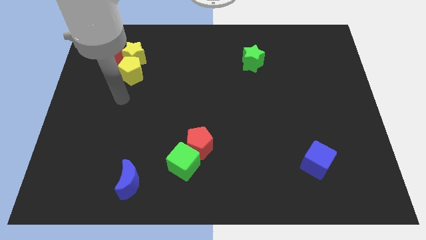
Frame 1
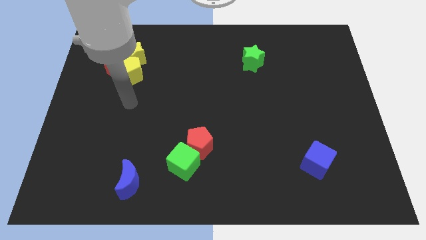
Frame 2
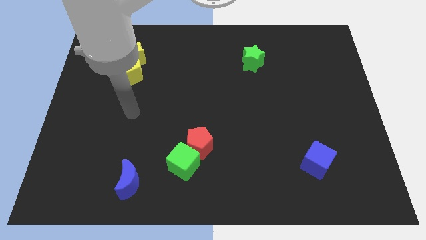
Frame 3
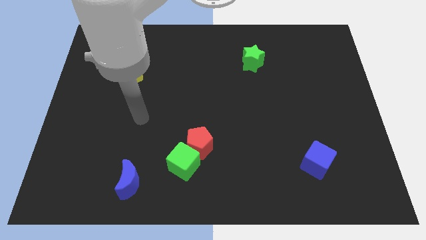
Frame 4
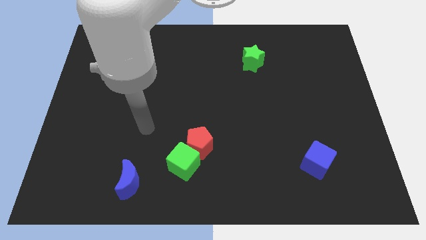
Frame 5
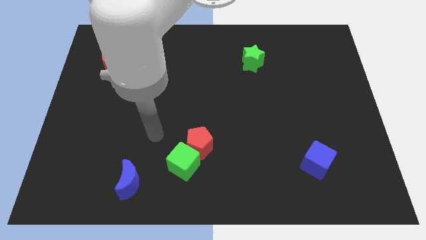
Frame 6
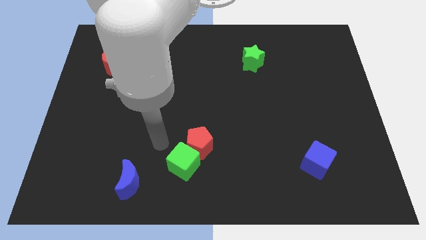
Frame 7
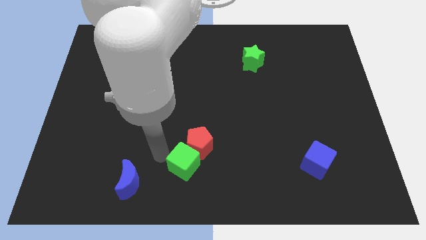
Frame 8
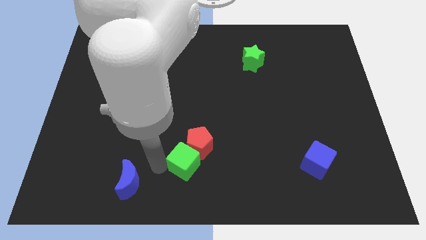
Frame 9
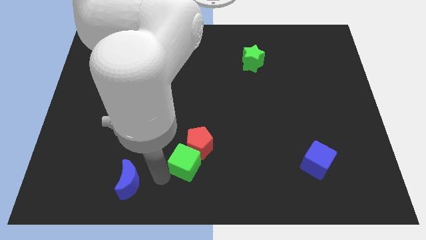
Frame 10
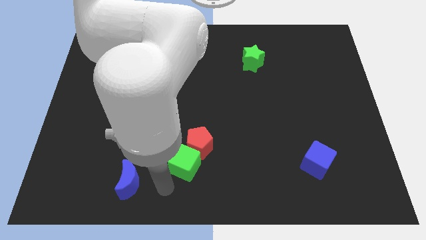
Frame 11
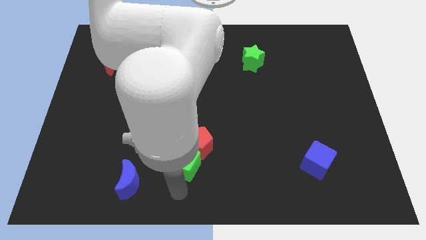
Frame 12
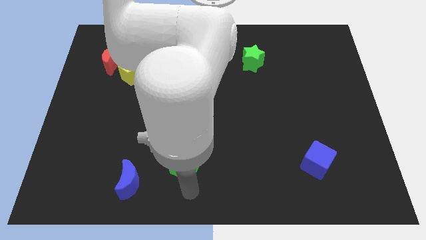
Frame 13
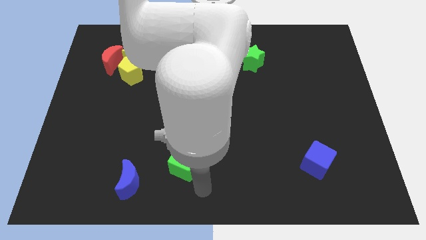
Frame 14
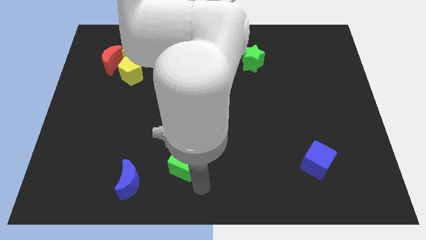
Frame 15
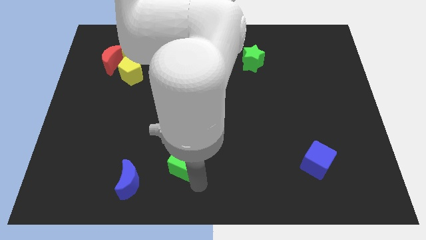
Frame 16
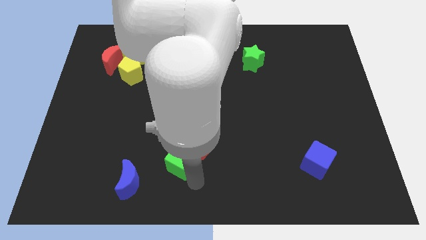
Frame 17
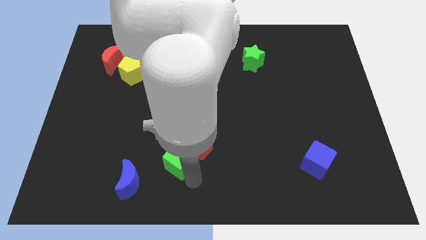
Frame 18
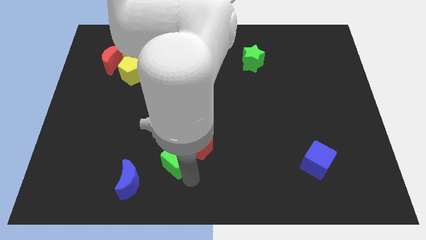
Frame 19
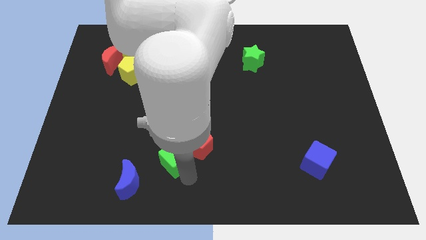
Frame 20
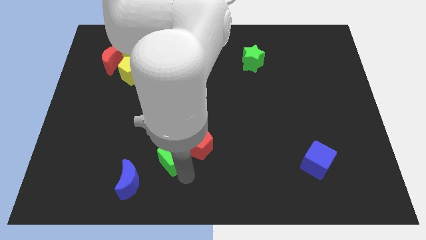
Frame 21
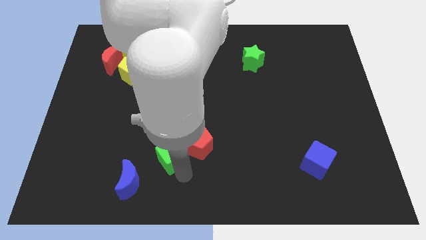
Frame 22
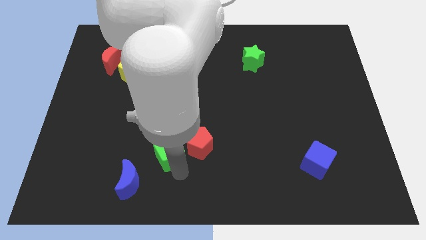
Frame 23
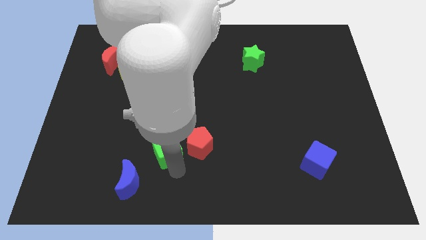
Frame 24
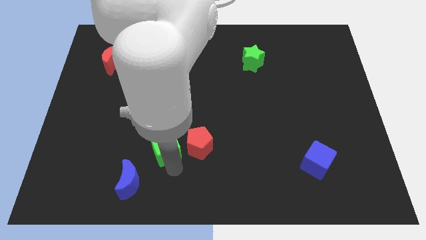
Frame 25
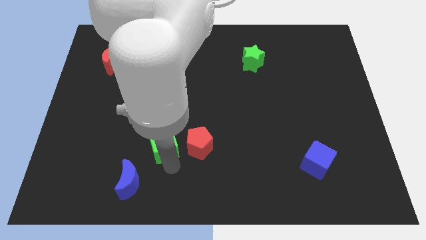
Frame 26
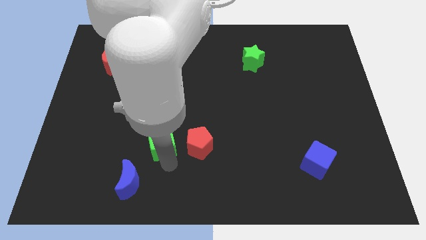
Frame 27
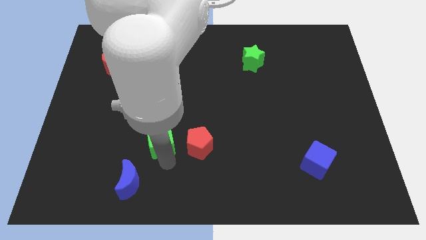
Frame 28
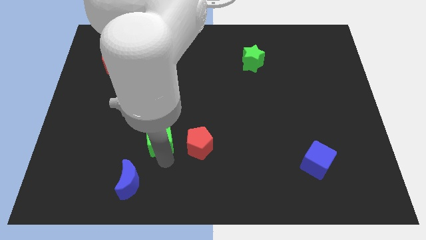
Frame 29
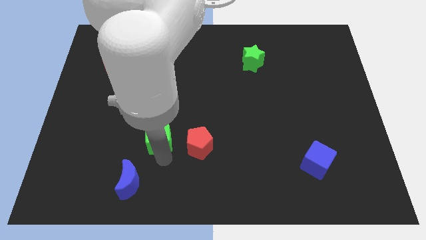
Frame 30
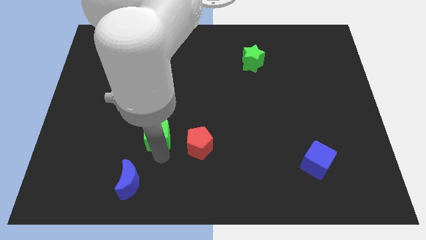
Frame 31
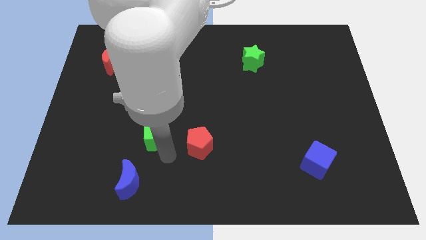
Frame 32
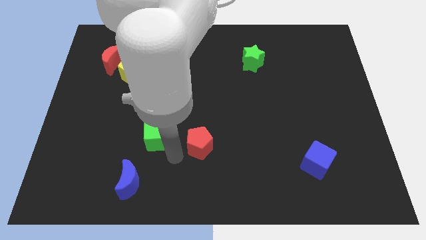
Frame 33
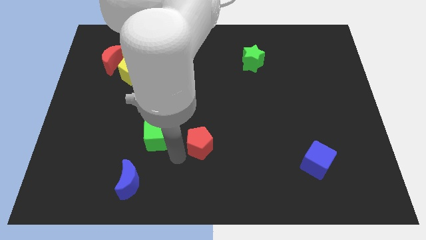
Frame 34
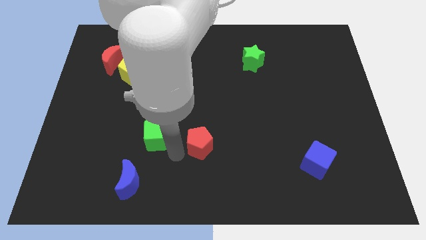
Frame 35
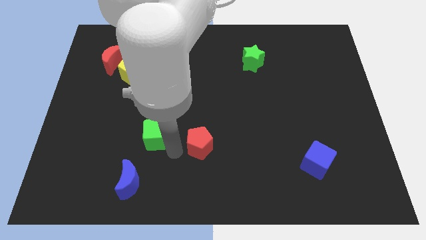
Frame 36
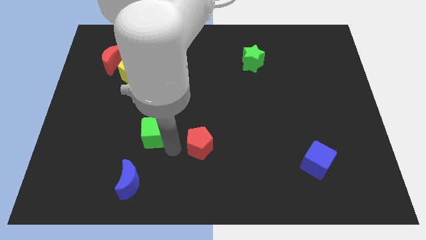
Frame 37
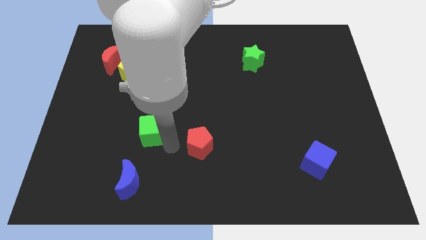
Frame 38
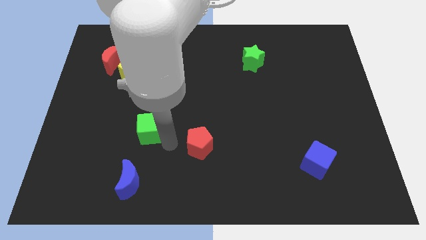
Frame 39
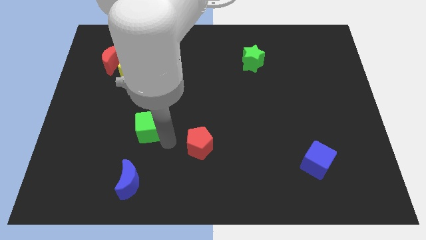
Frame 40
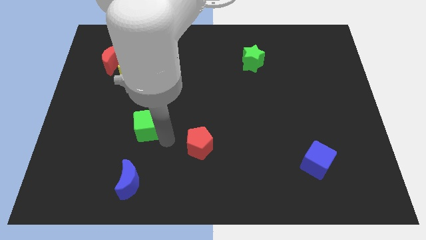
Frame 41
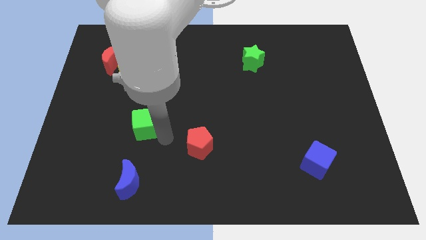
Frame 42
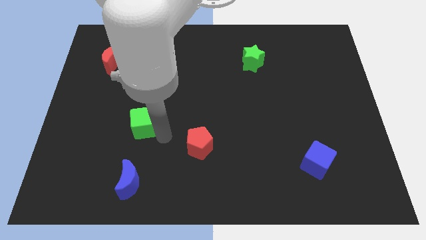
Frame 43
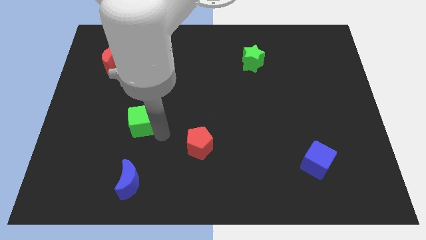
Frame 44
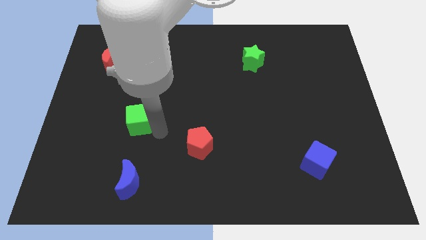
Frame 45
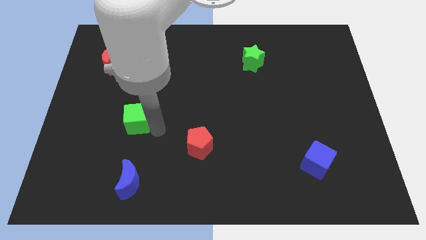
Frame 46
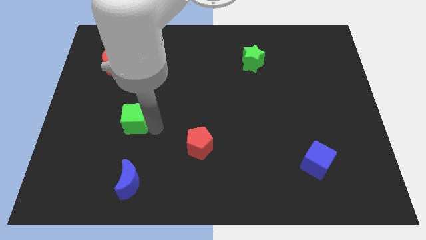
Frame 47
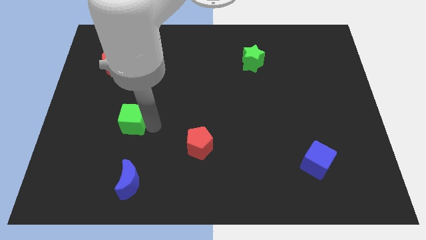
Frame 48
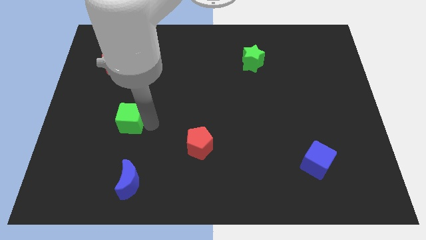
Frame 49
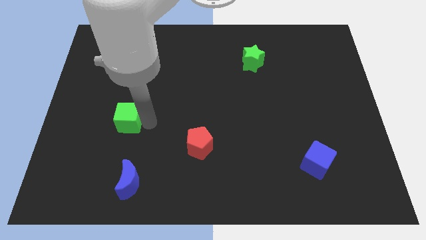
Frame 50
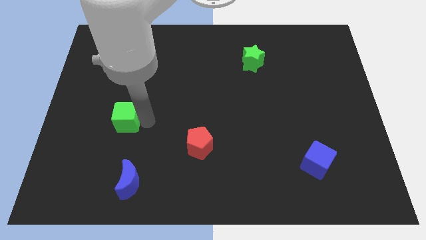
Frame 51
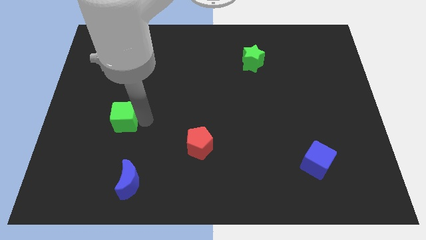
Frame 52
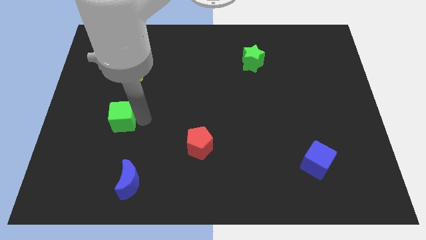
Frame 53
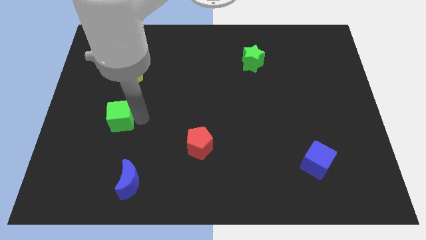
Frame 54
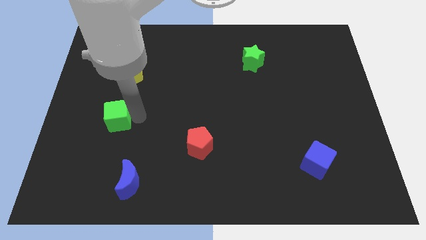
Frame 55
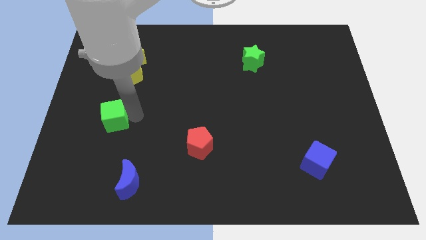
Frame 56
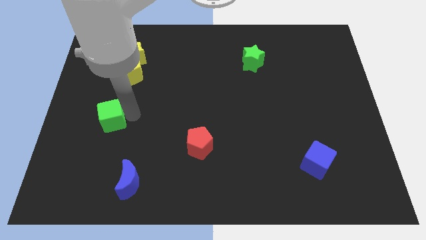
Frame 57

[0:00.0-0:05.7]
push the green cube diagonally up and left

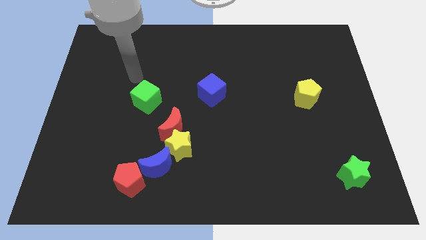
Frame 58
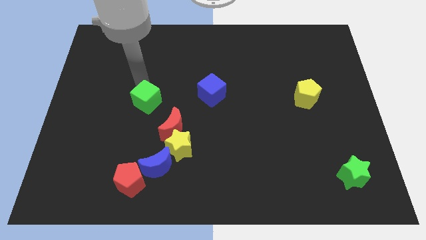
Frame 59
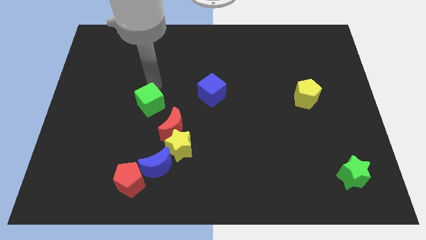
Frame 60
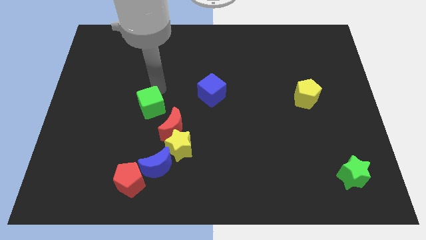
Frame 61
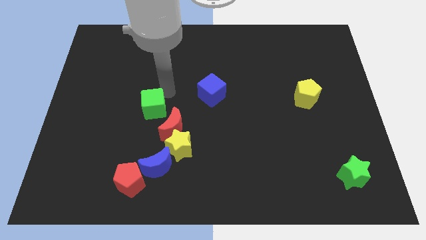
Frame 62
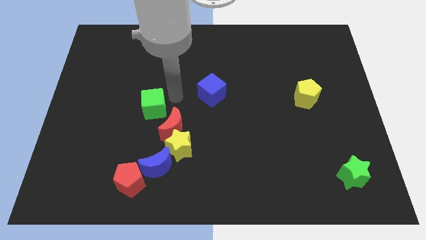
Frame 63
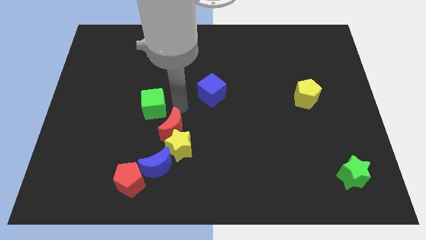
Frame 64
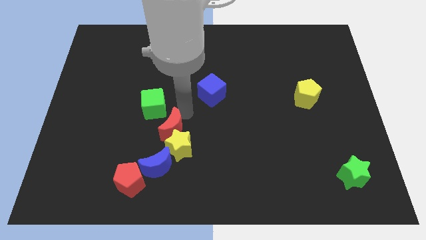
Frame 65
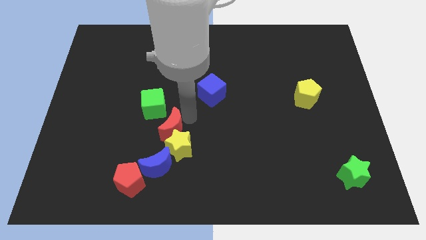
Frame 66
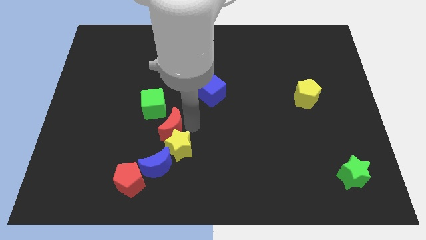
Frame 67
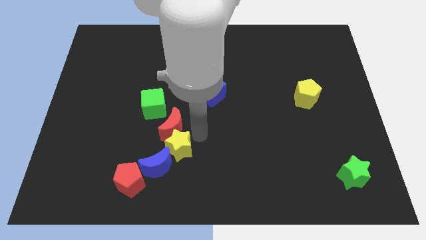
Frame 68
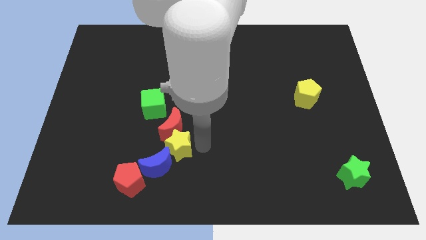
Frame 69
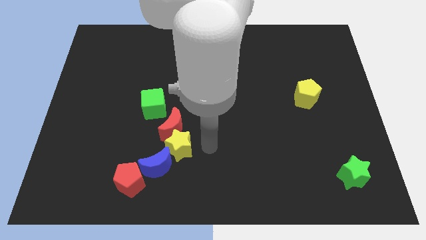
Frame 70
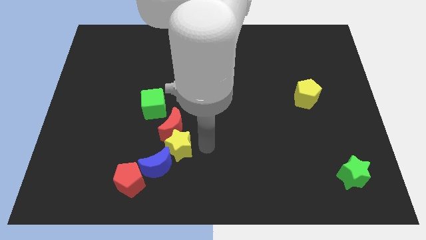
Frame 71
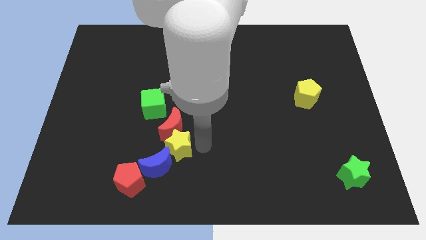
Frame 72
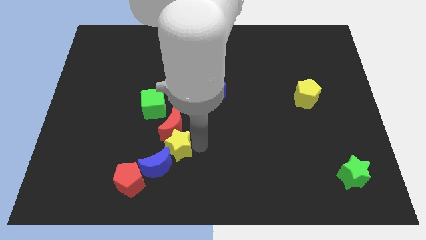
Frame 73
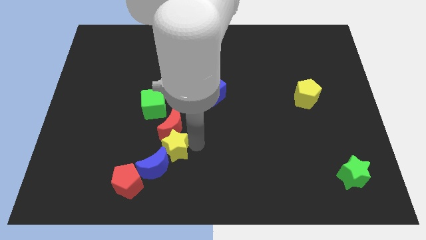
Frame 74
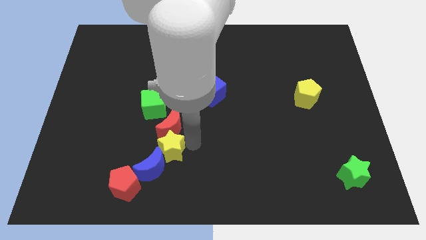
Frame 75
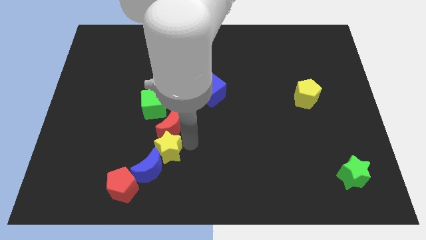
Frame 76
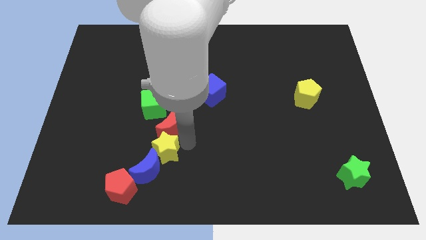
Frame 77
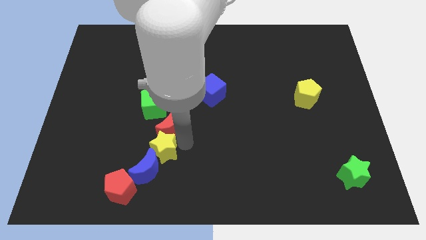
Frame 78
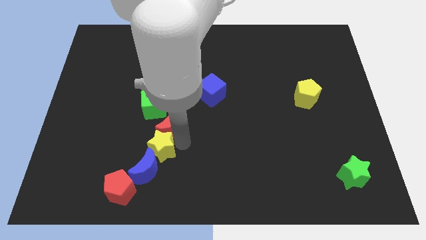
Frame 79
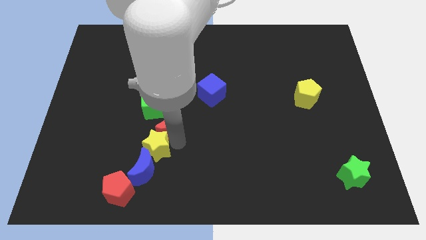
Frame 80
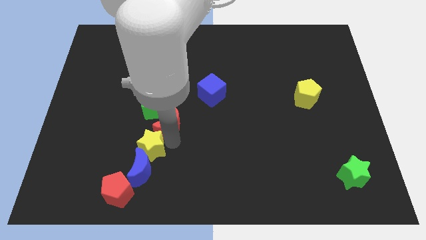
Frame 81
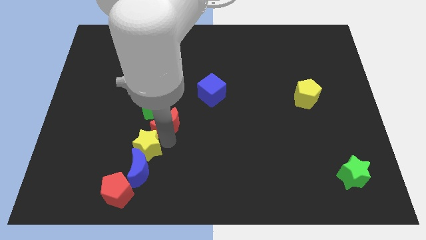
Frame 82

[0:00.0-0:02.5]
push the yellow star to the left slightly
